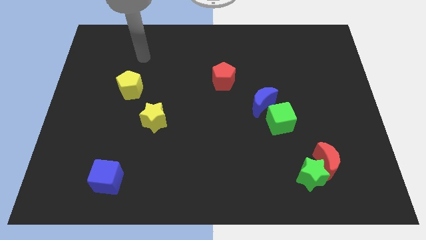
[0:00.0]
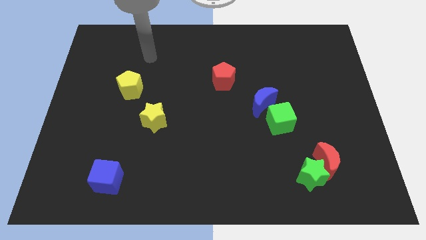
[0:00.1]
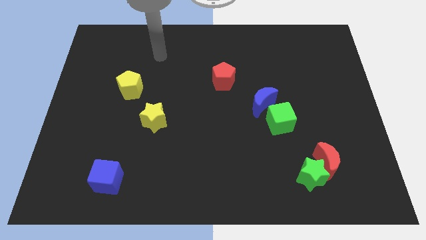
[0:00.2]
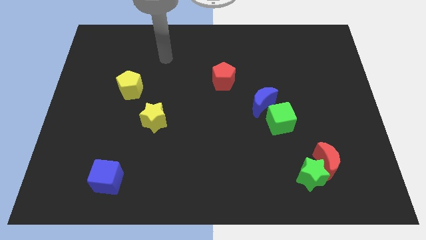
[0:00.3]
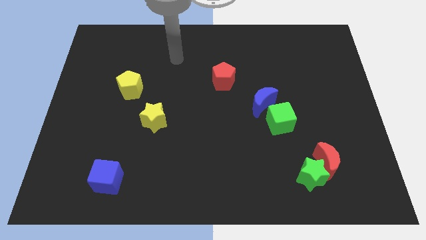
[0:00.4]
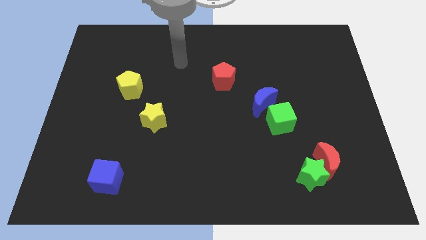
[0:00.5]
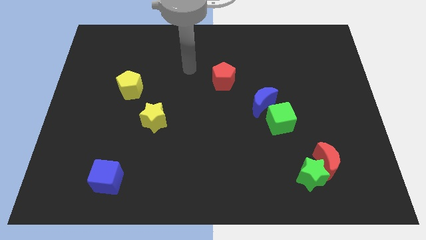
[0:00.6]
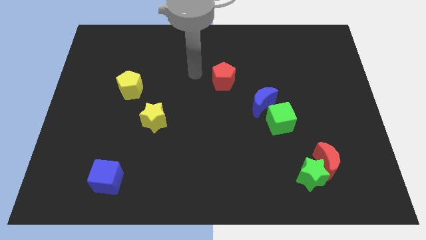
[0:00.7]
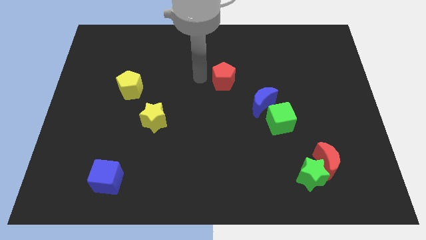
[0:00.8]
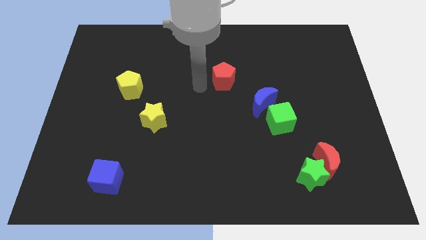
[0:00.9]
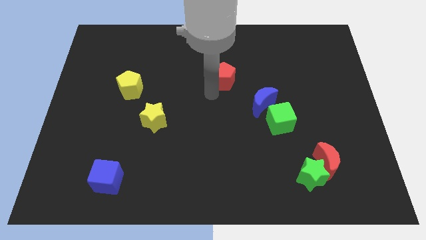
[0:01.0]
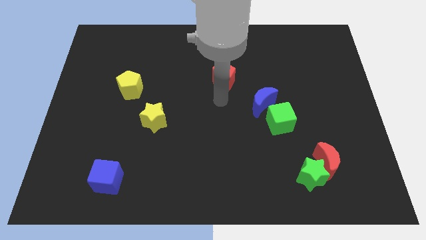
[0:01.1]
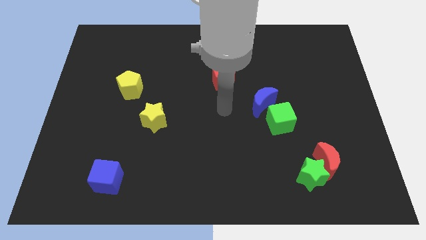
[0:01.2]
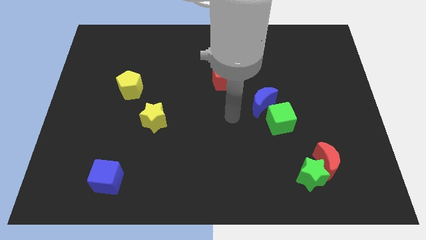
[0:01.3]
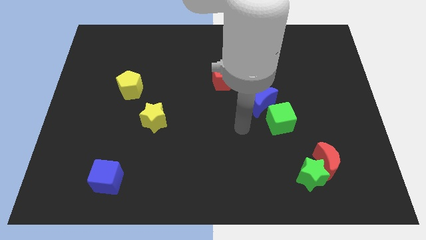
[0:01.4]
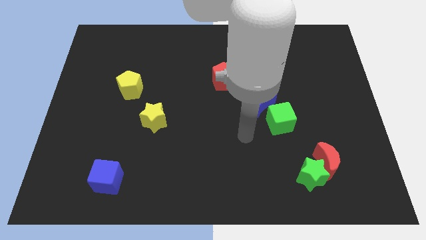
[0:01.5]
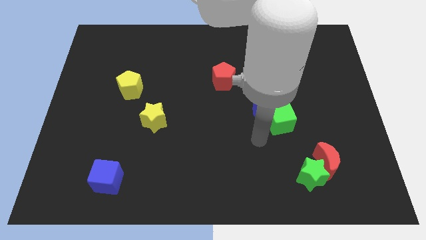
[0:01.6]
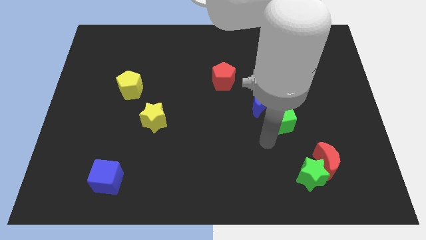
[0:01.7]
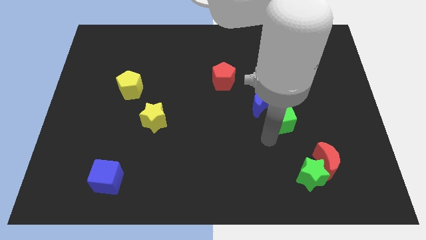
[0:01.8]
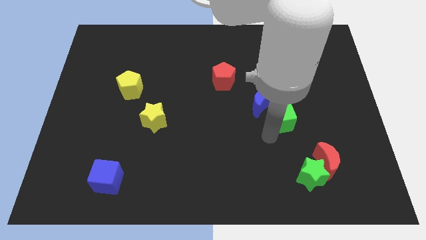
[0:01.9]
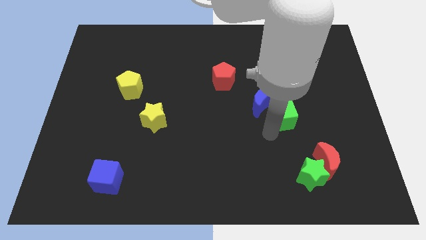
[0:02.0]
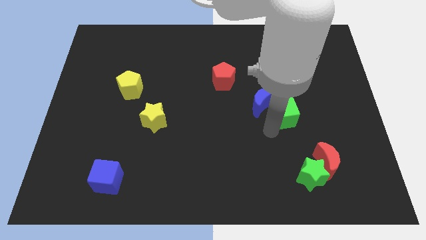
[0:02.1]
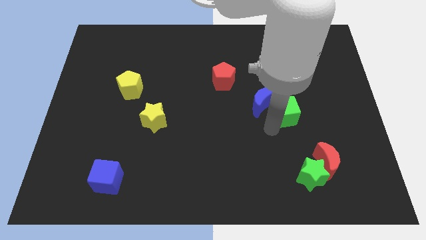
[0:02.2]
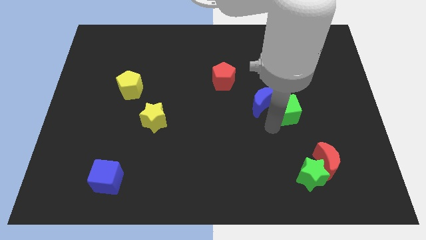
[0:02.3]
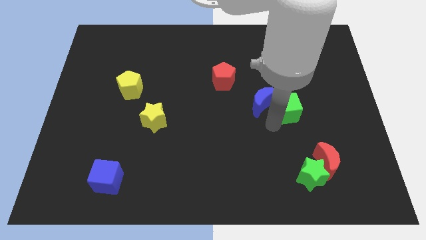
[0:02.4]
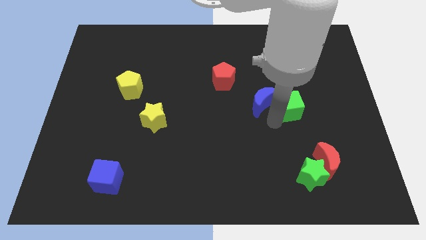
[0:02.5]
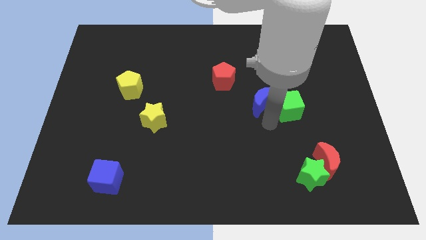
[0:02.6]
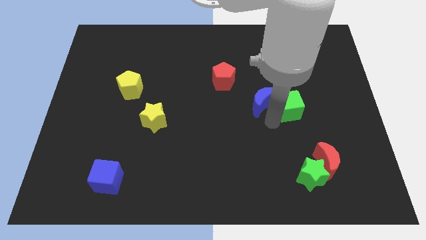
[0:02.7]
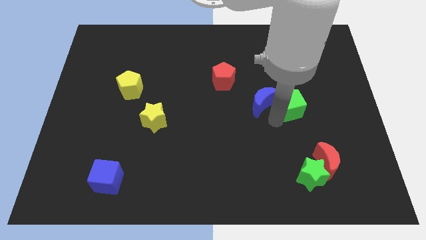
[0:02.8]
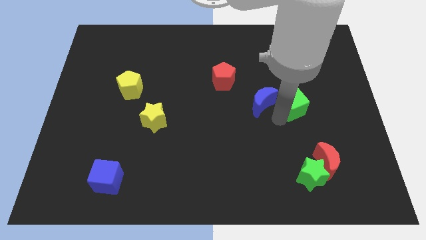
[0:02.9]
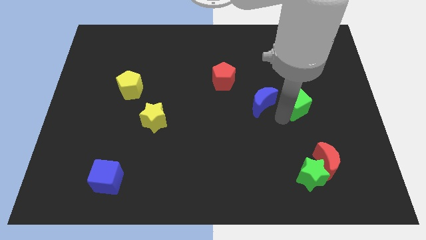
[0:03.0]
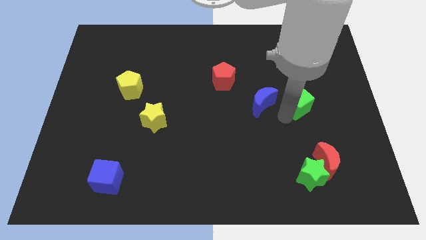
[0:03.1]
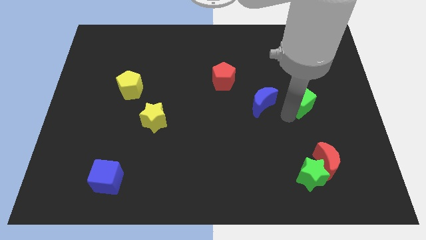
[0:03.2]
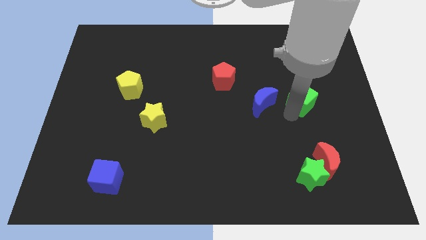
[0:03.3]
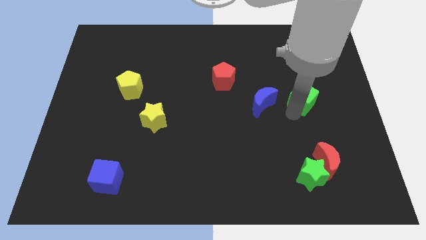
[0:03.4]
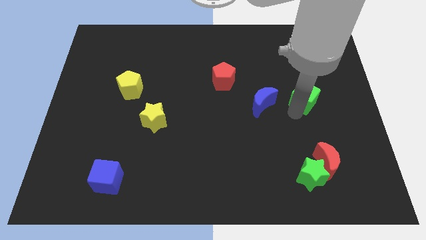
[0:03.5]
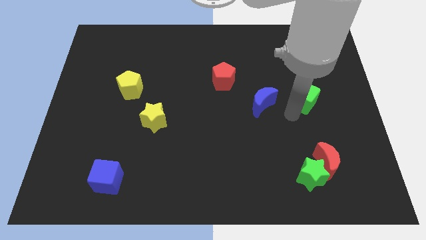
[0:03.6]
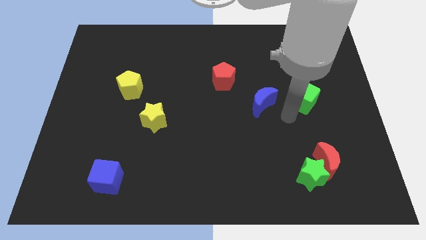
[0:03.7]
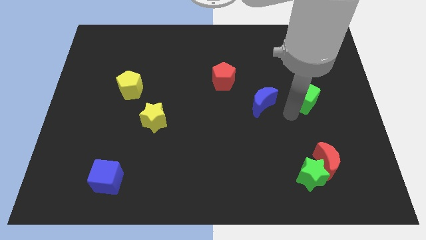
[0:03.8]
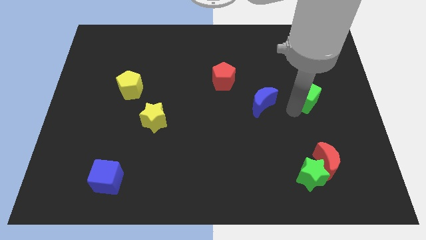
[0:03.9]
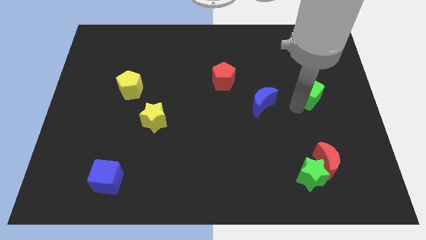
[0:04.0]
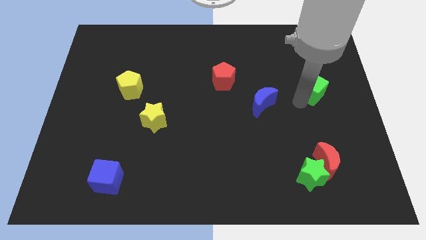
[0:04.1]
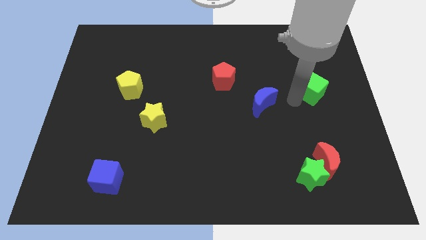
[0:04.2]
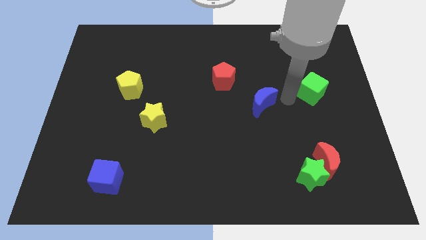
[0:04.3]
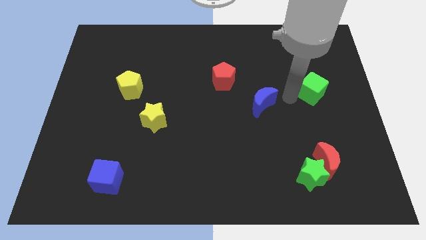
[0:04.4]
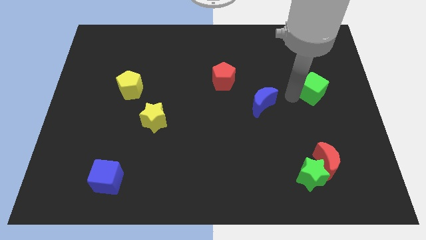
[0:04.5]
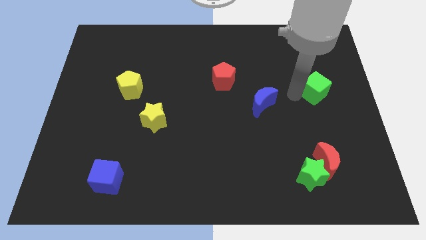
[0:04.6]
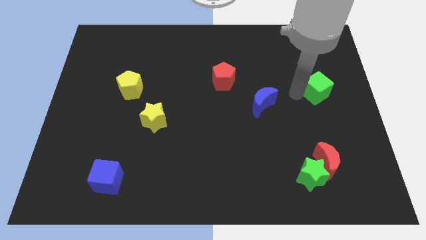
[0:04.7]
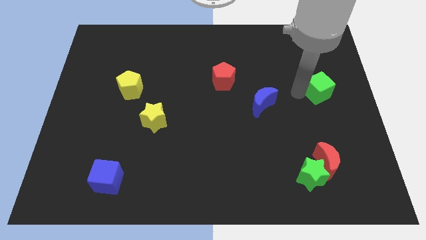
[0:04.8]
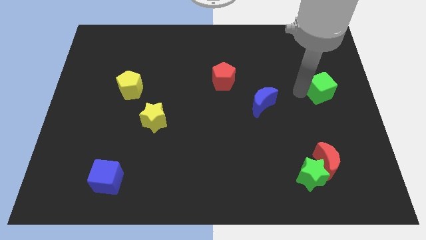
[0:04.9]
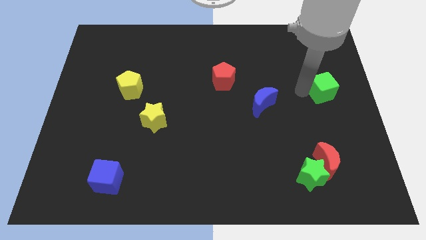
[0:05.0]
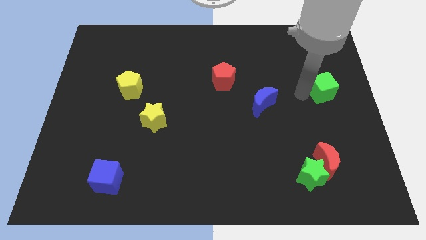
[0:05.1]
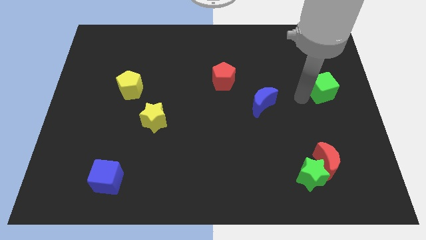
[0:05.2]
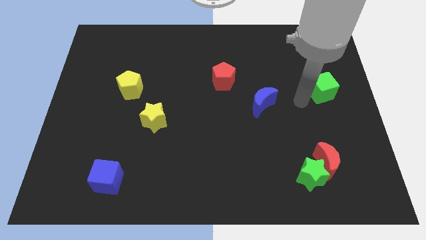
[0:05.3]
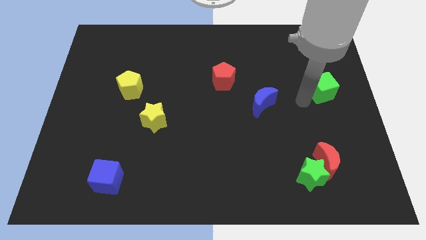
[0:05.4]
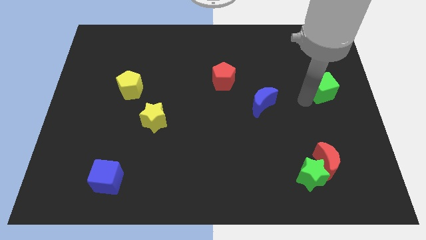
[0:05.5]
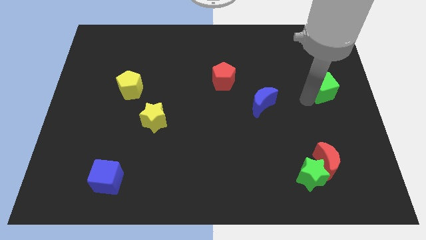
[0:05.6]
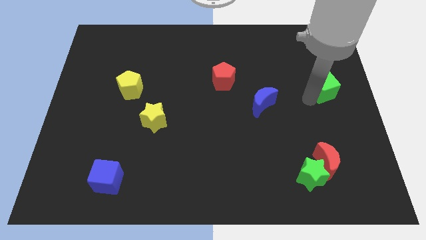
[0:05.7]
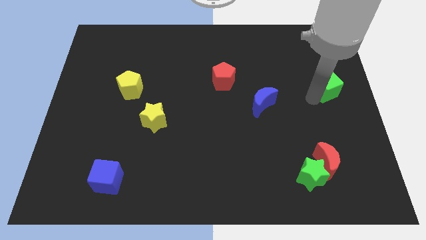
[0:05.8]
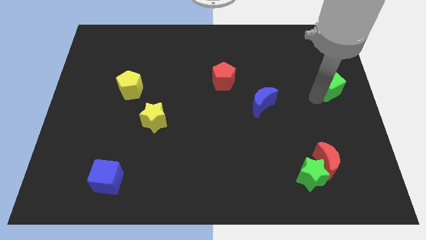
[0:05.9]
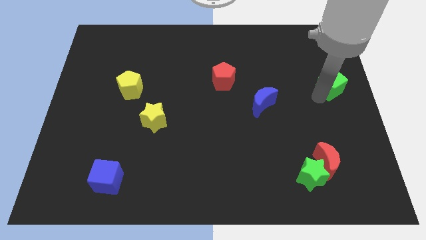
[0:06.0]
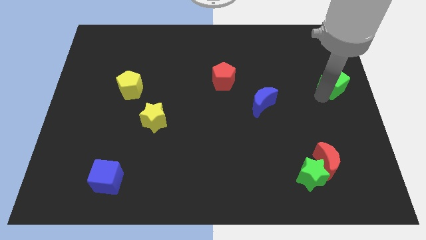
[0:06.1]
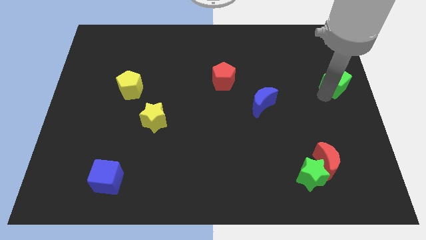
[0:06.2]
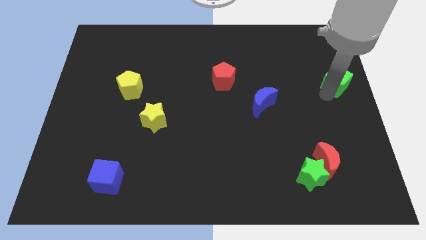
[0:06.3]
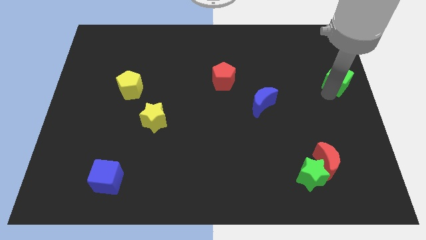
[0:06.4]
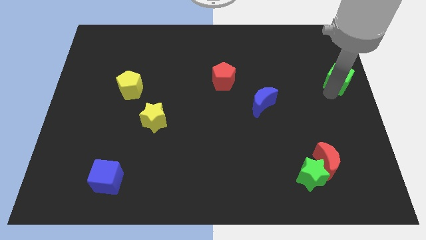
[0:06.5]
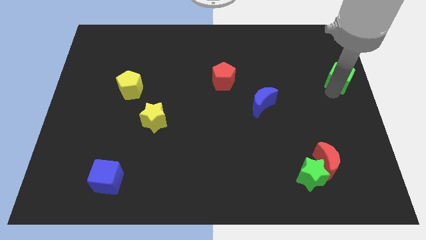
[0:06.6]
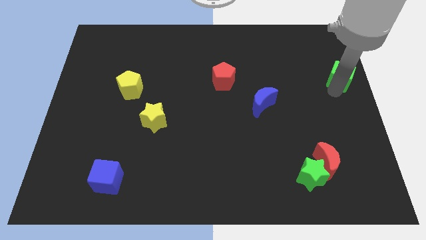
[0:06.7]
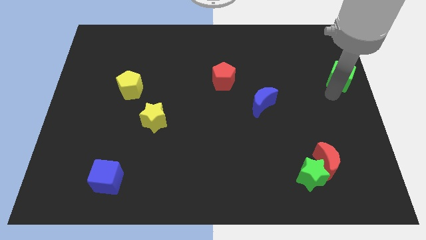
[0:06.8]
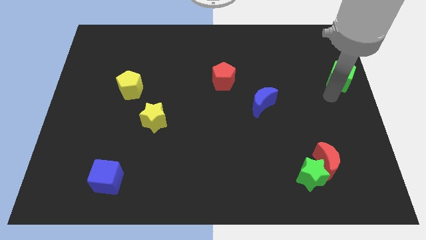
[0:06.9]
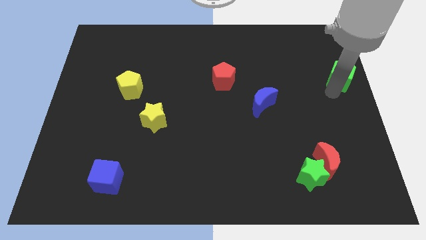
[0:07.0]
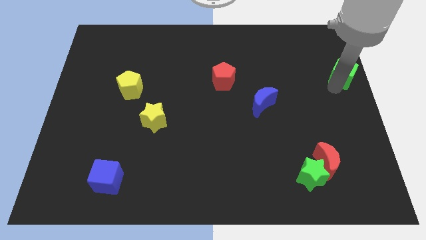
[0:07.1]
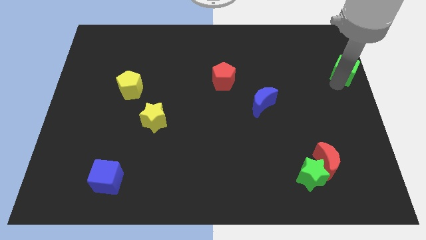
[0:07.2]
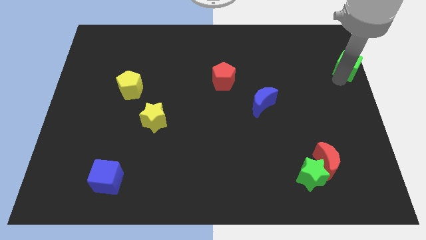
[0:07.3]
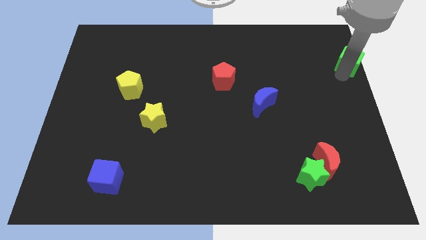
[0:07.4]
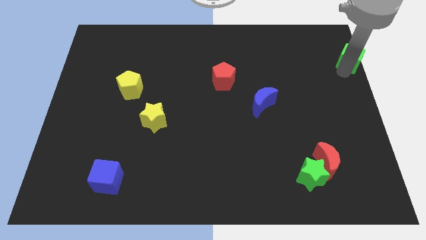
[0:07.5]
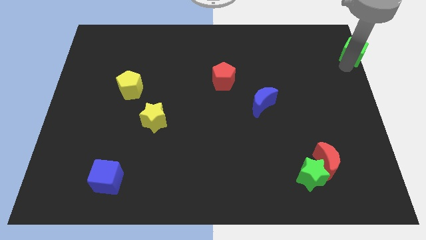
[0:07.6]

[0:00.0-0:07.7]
move the green cube to the top right corner
